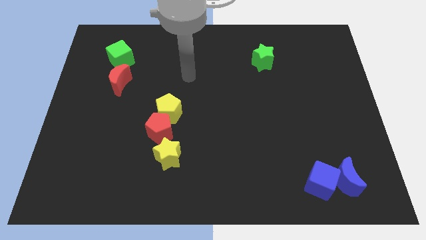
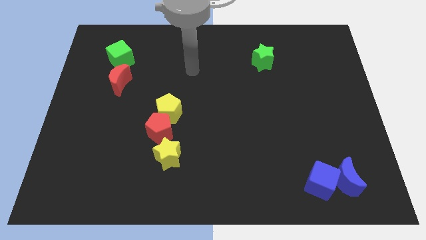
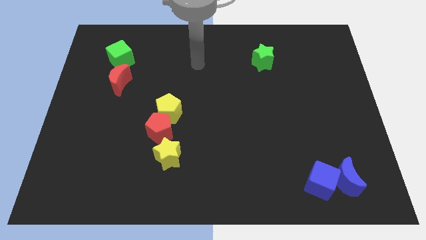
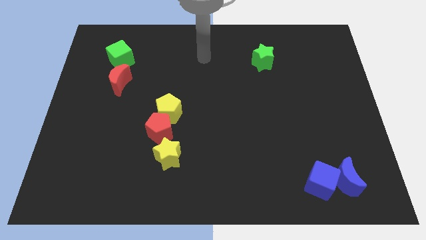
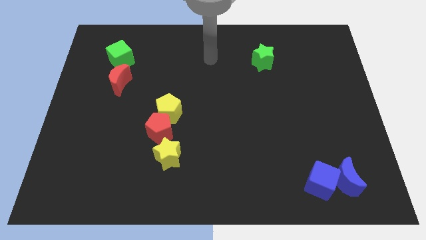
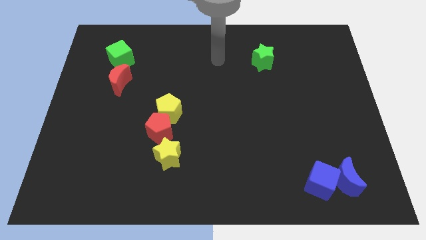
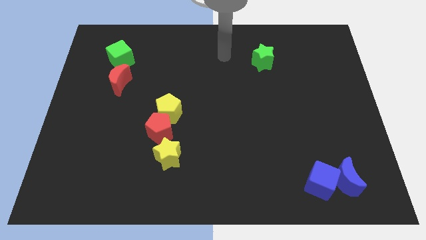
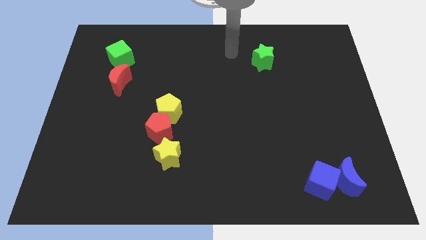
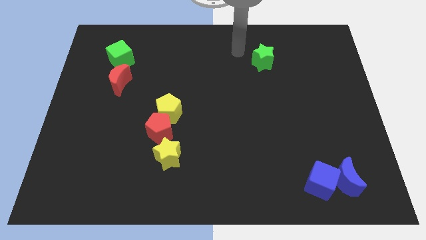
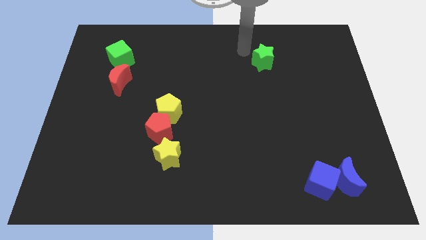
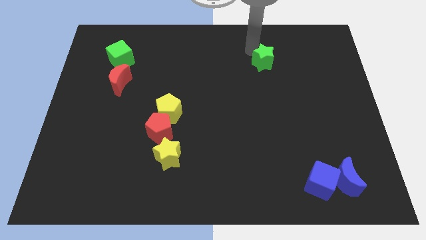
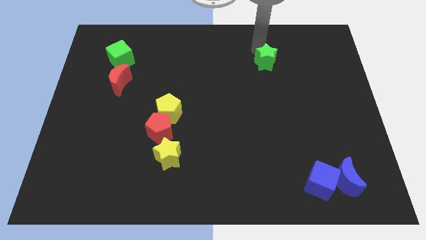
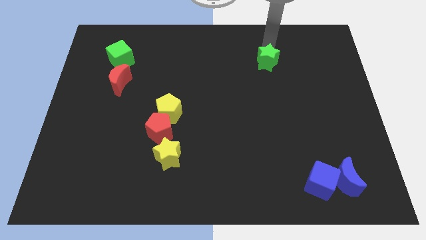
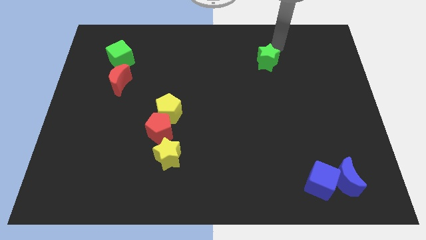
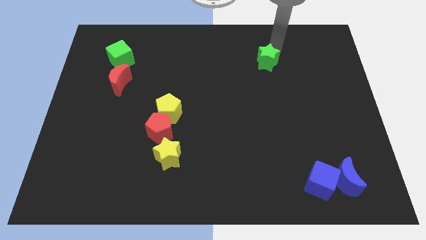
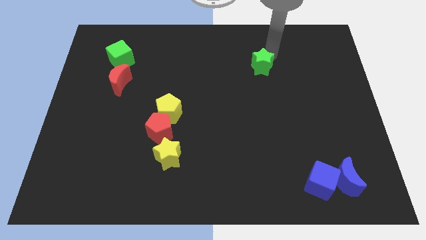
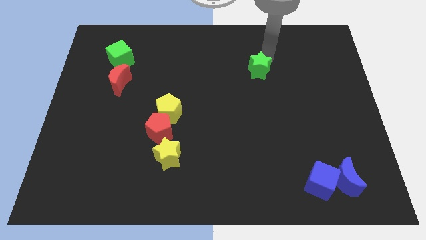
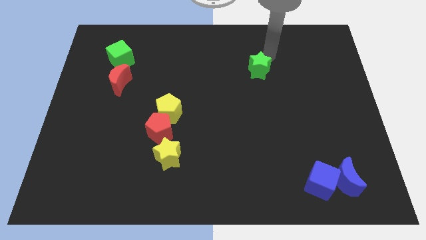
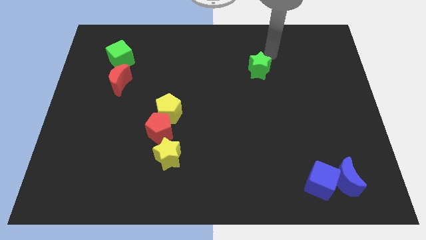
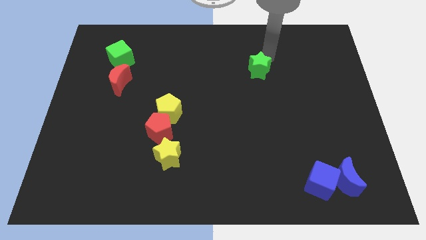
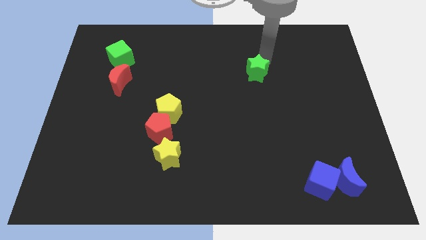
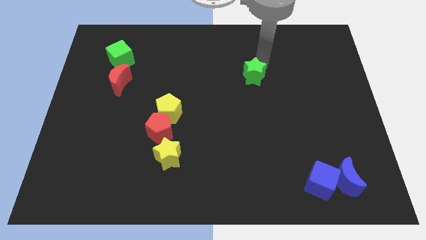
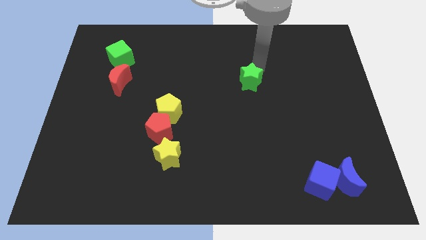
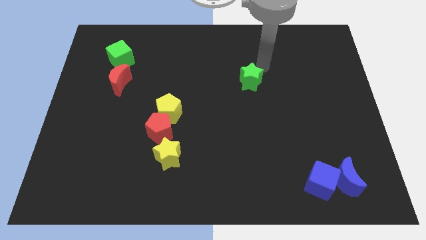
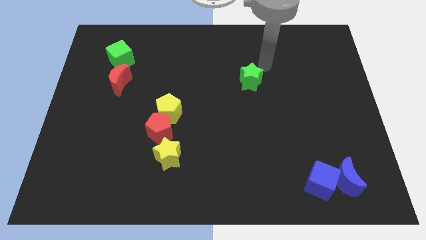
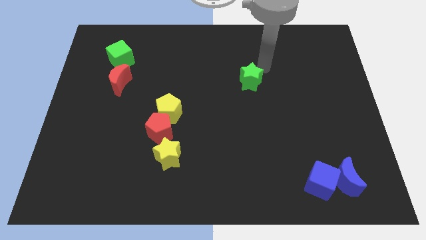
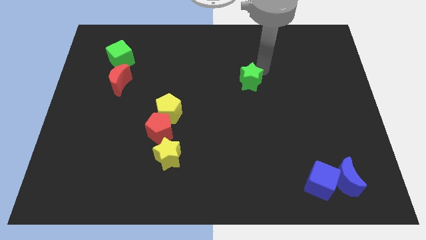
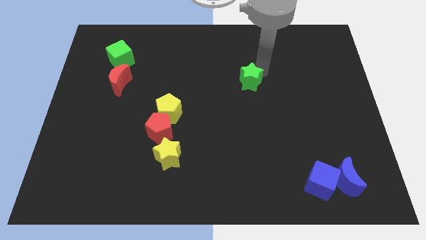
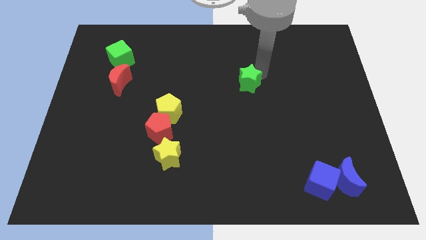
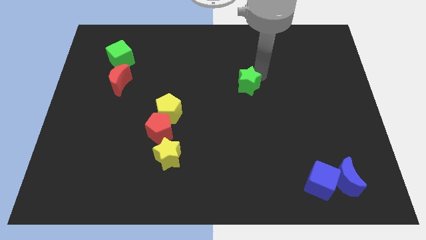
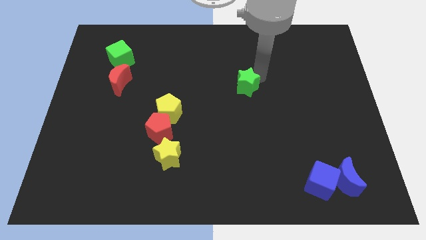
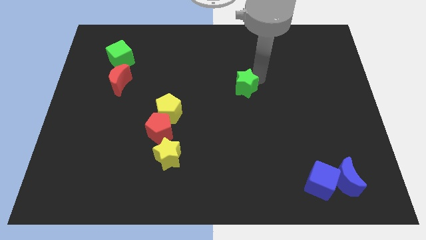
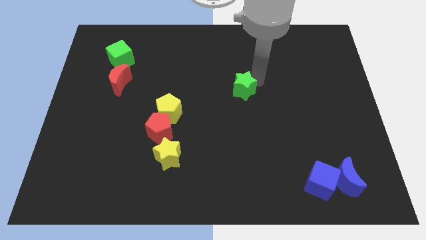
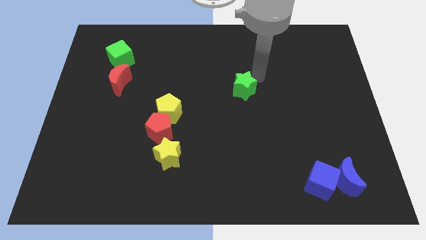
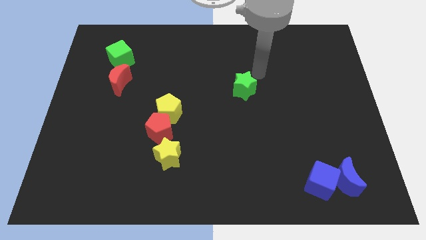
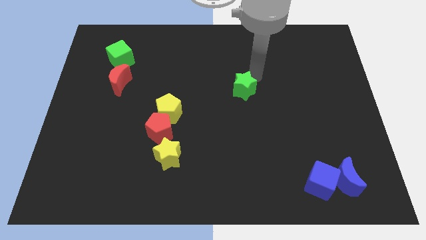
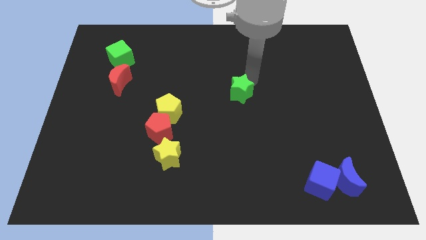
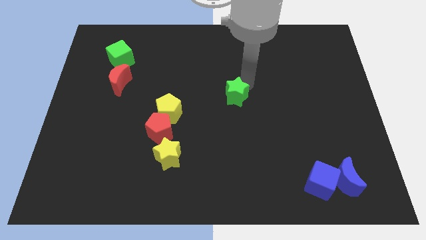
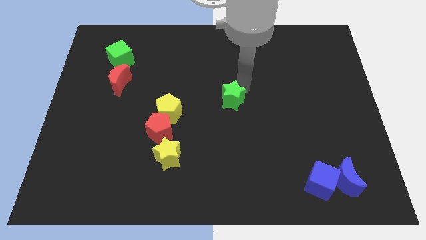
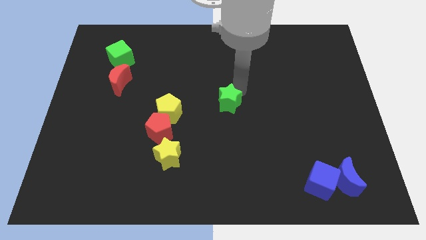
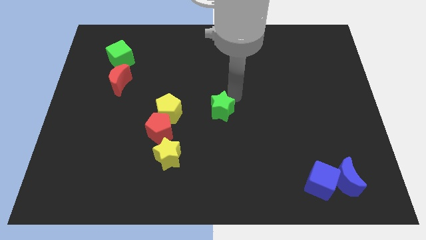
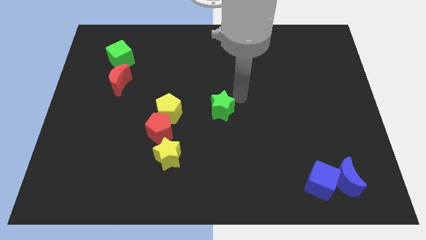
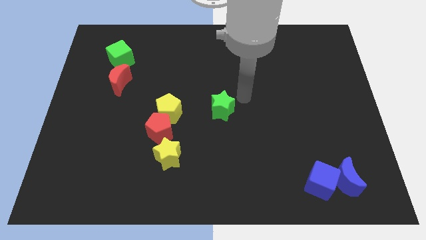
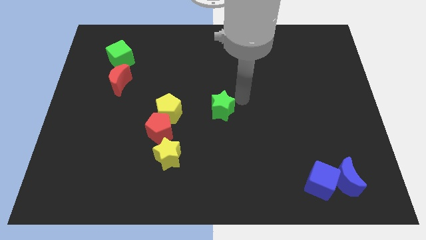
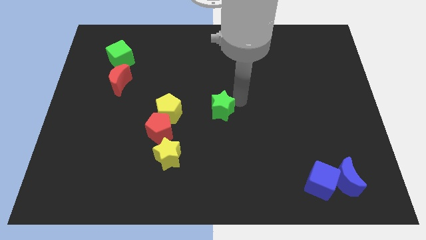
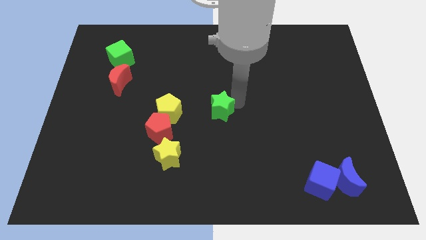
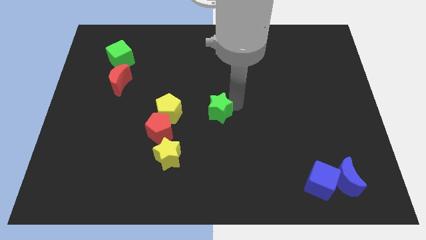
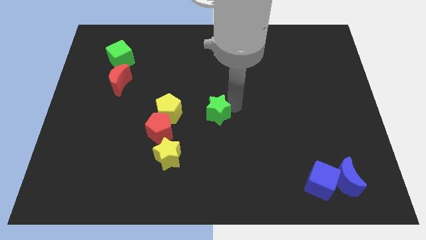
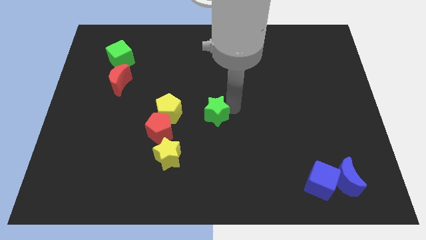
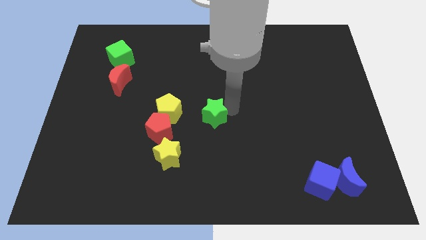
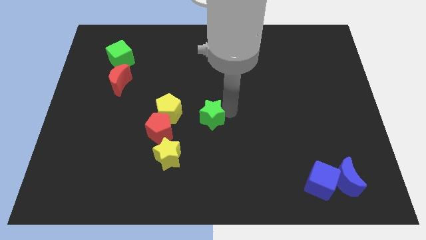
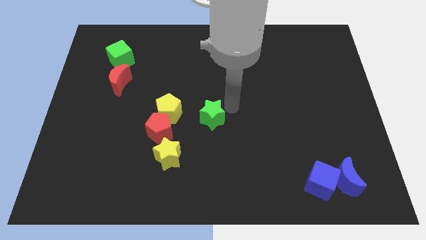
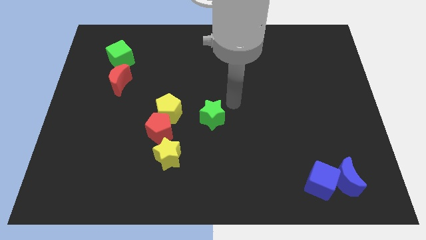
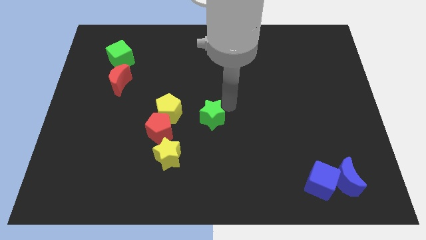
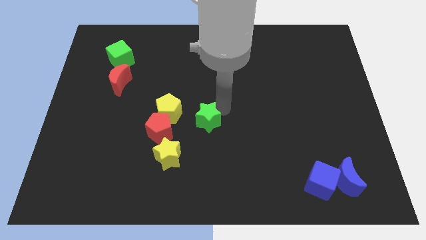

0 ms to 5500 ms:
push the green star to the bottom right of the yellow pentagon

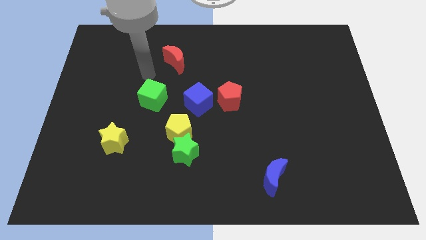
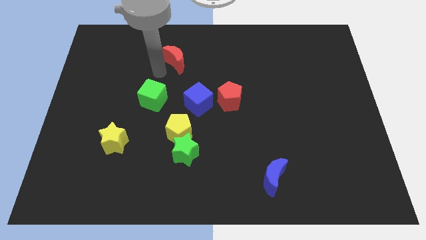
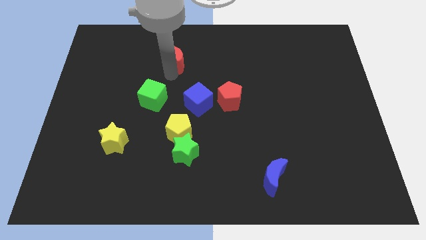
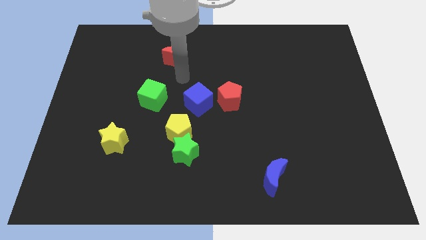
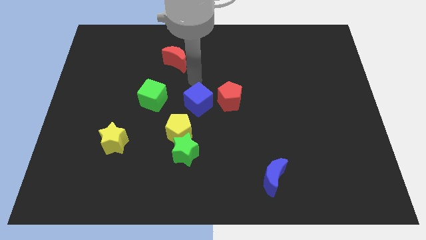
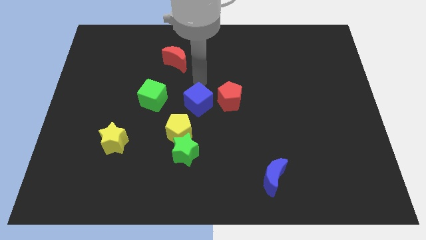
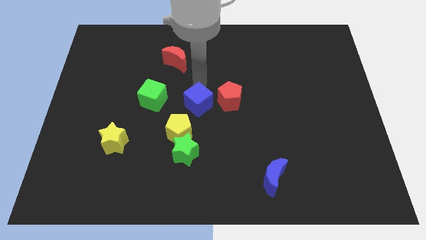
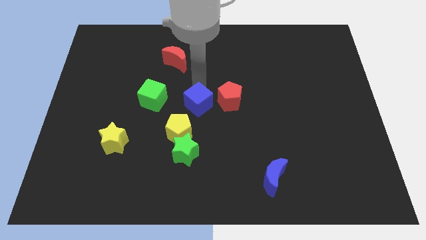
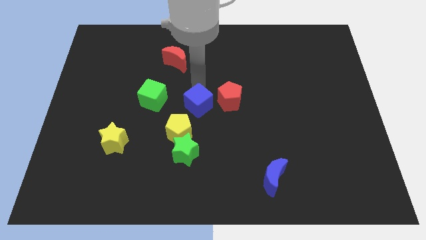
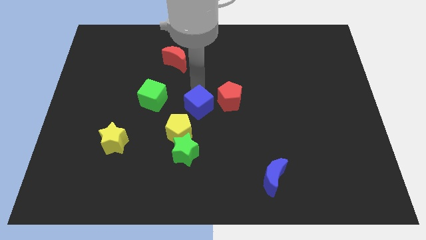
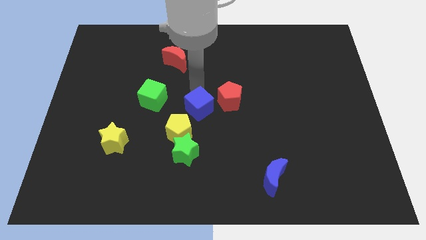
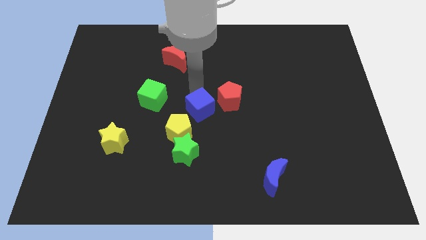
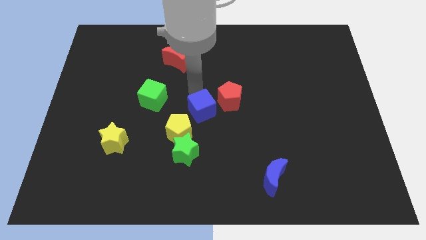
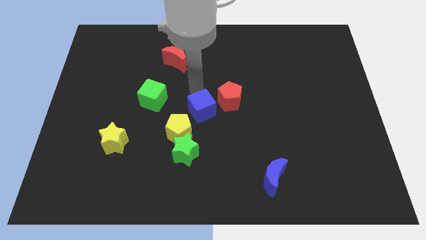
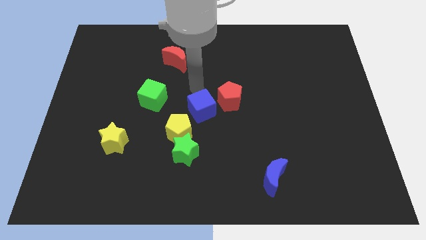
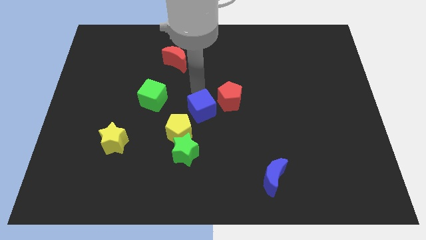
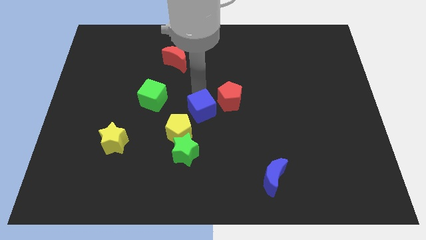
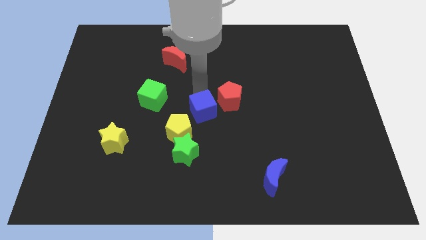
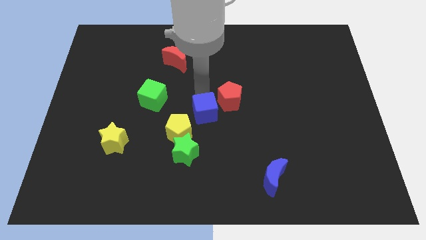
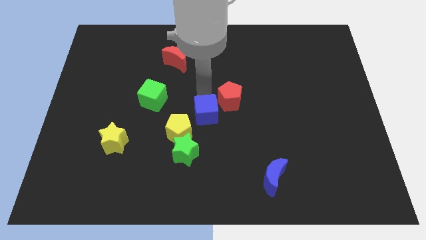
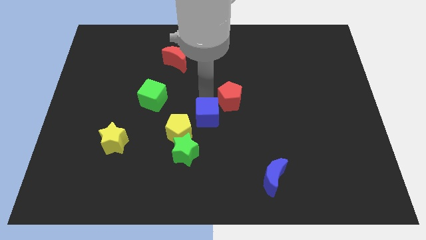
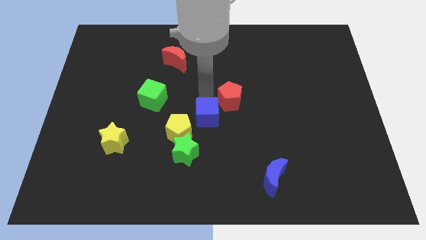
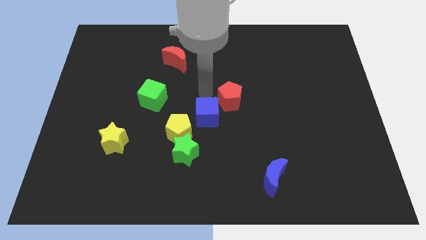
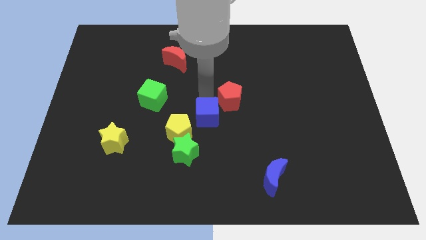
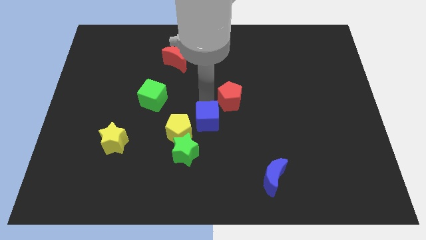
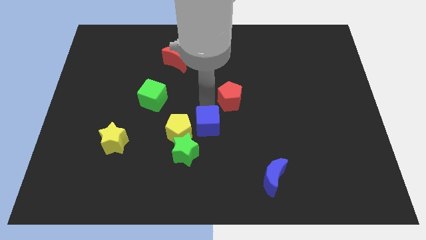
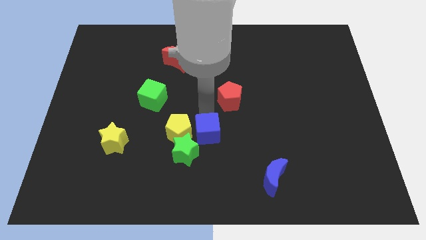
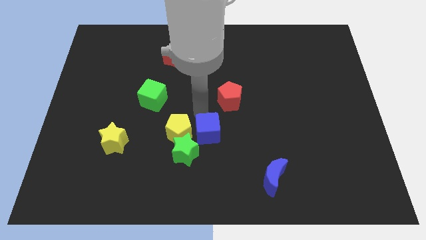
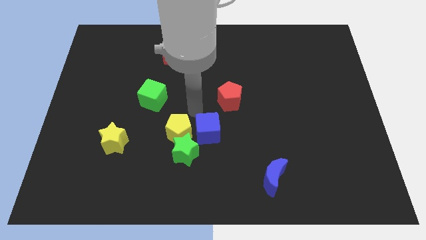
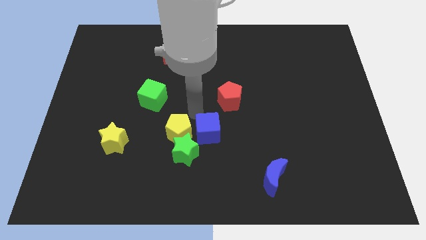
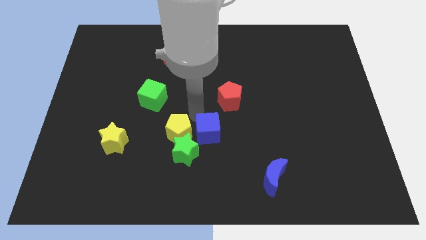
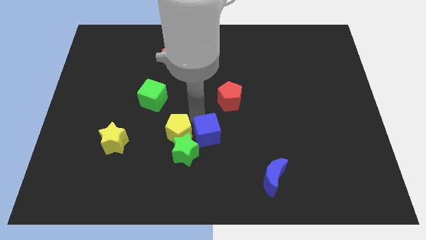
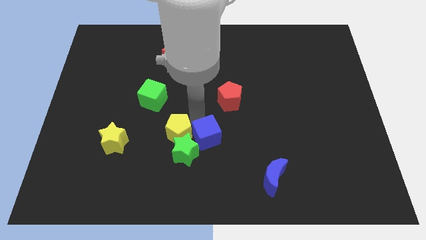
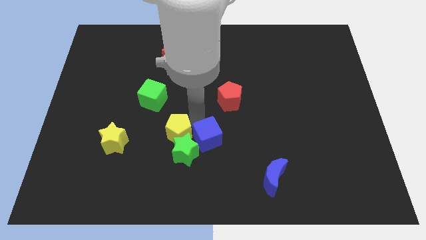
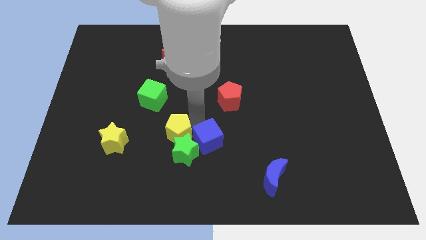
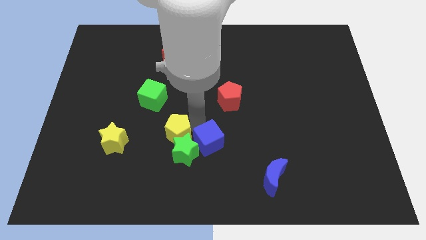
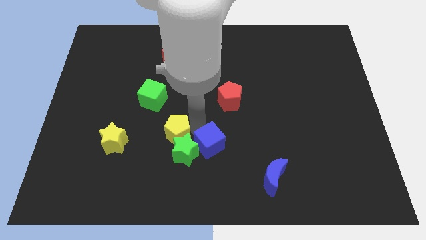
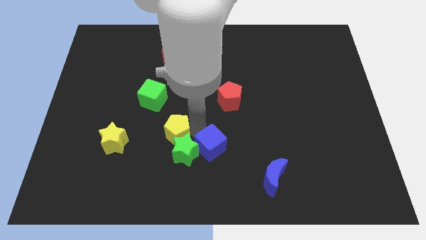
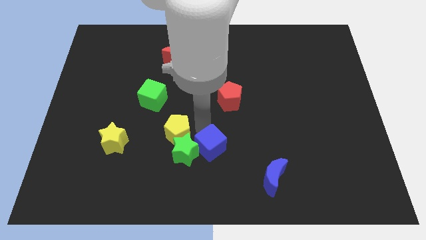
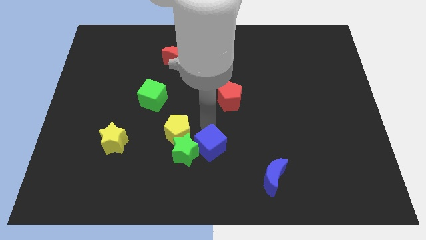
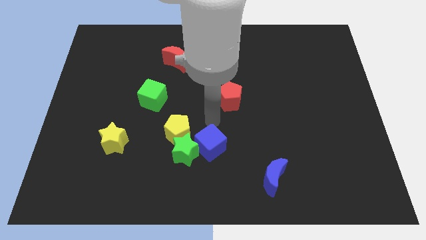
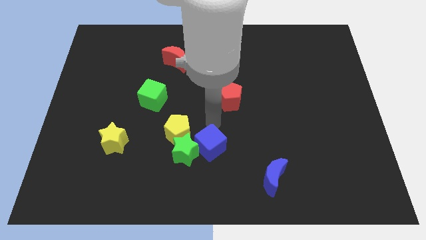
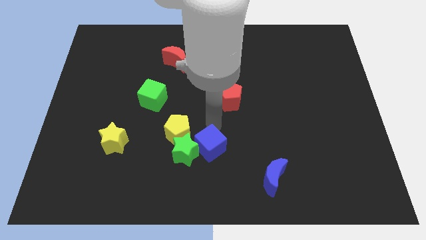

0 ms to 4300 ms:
put the blue cube to the bottom right of the green star
